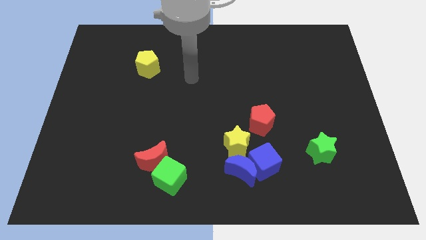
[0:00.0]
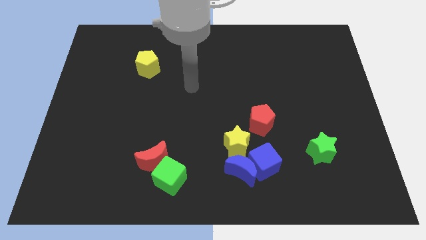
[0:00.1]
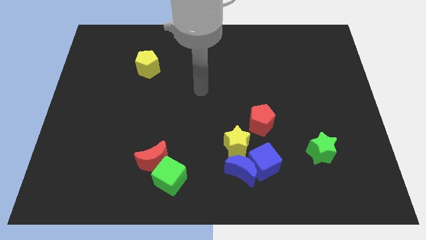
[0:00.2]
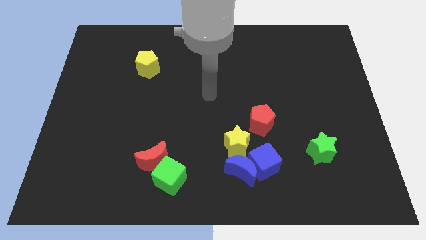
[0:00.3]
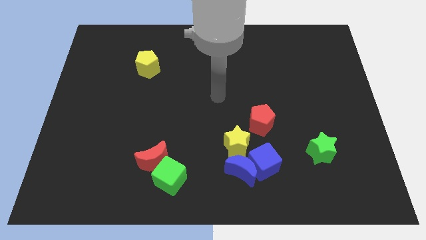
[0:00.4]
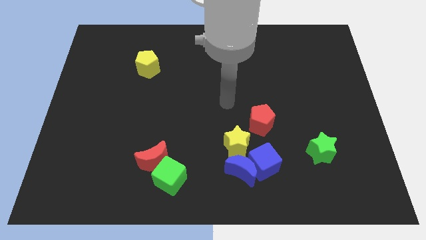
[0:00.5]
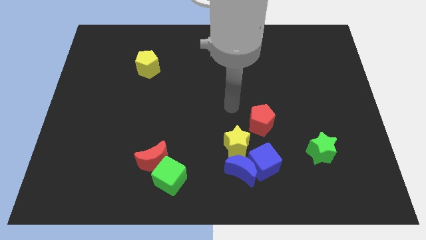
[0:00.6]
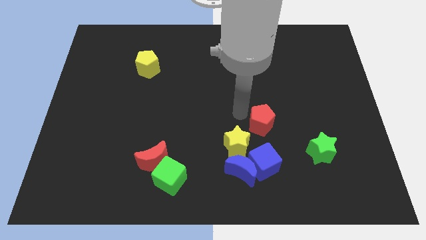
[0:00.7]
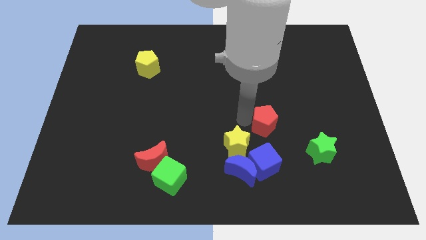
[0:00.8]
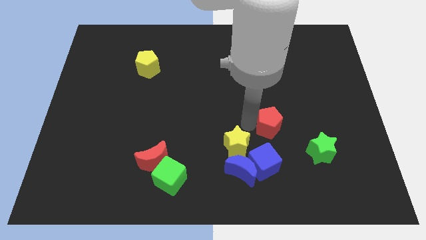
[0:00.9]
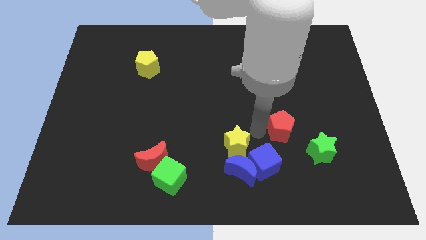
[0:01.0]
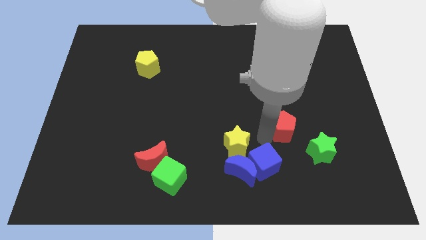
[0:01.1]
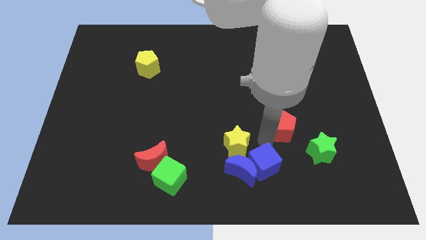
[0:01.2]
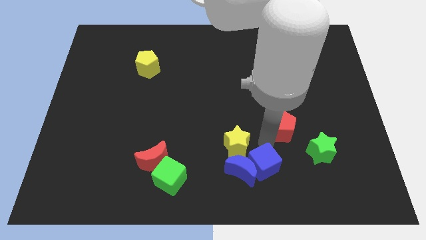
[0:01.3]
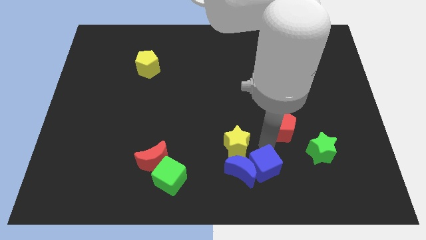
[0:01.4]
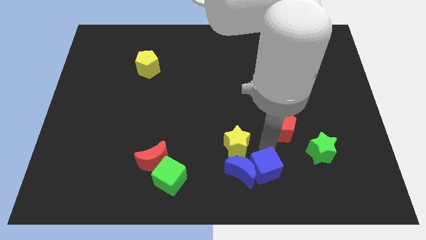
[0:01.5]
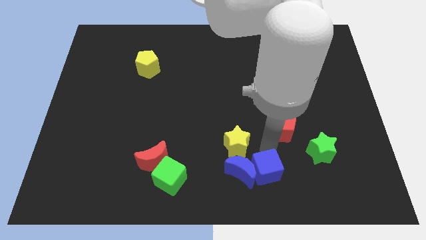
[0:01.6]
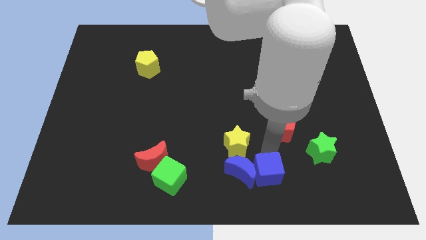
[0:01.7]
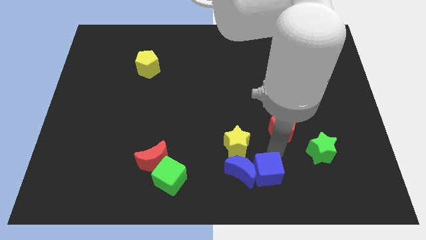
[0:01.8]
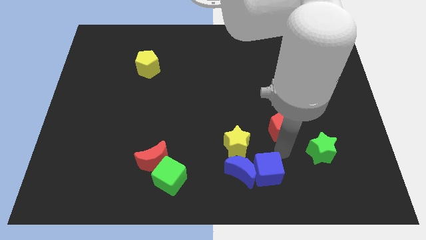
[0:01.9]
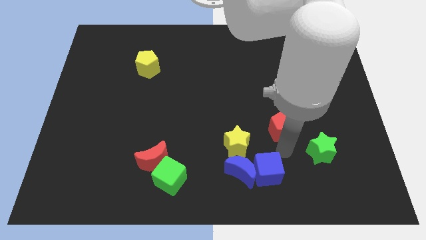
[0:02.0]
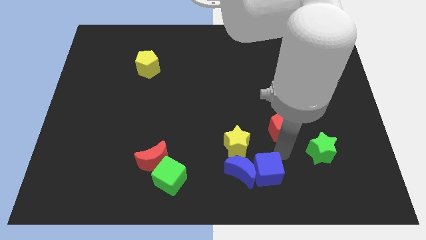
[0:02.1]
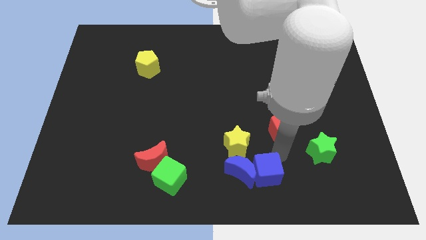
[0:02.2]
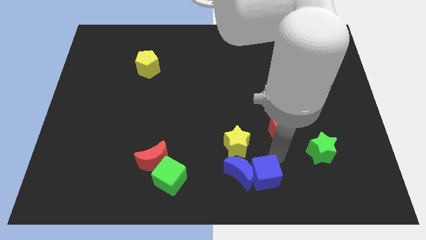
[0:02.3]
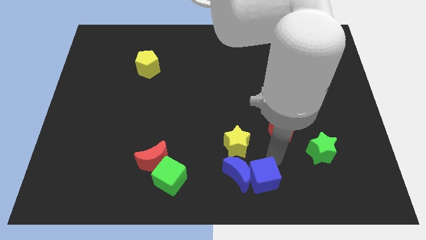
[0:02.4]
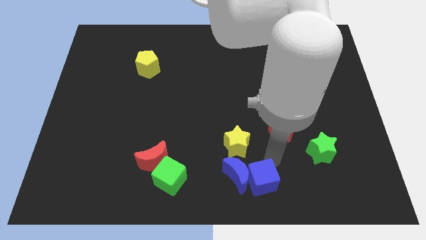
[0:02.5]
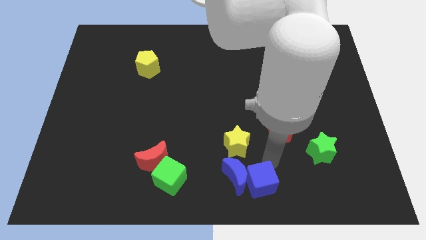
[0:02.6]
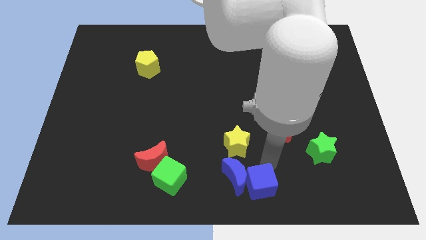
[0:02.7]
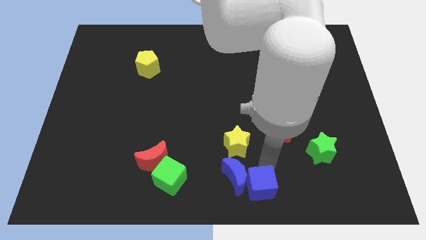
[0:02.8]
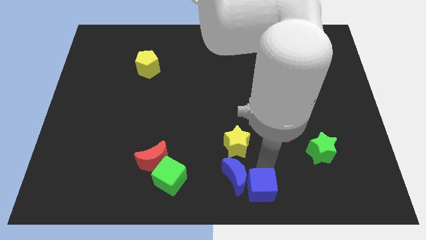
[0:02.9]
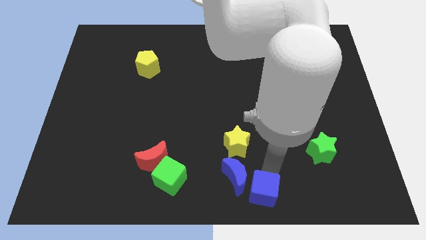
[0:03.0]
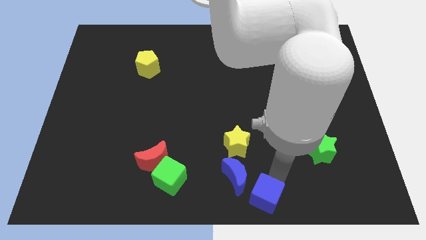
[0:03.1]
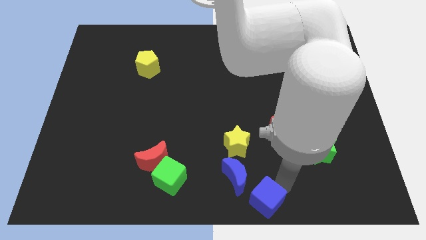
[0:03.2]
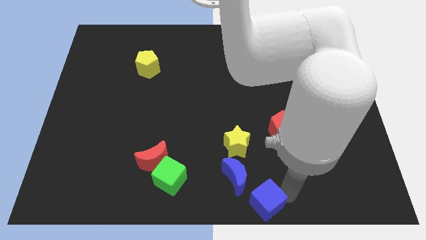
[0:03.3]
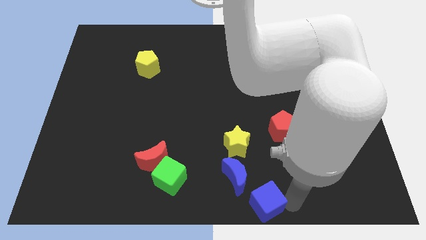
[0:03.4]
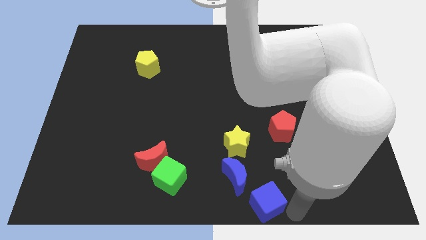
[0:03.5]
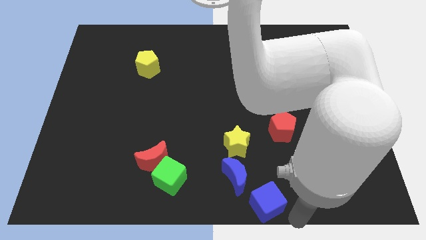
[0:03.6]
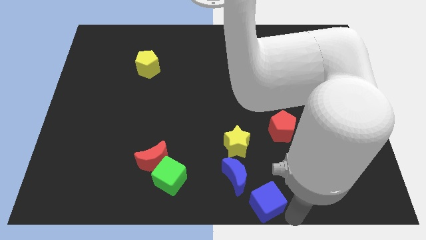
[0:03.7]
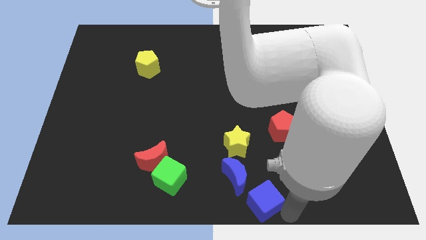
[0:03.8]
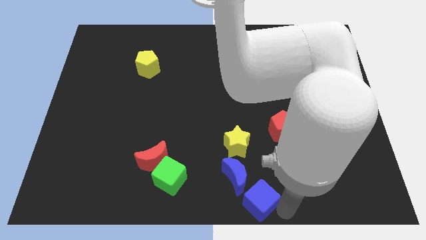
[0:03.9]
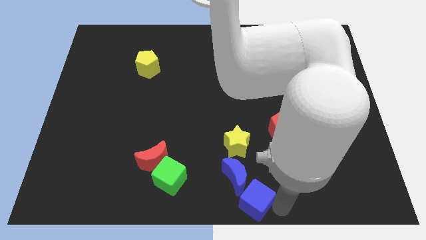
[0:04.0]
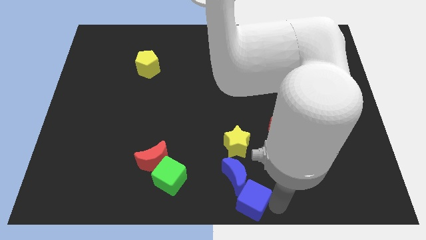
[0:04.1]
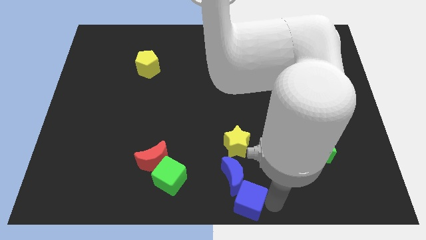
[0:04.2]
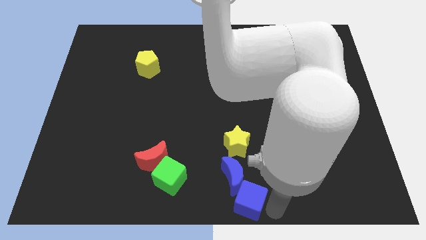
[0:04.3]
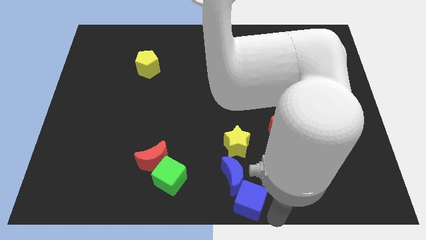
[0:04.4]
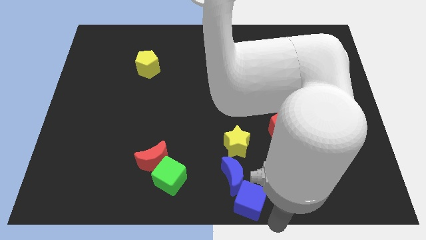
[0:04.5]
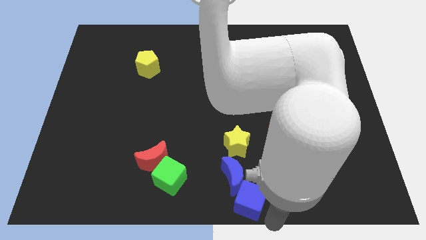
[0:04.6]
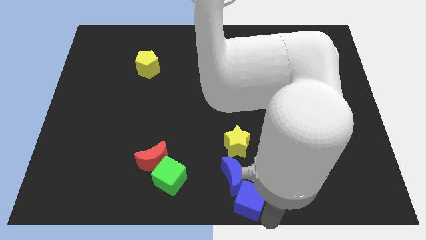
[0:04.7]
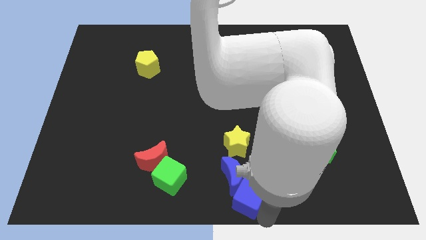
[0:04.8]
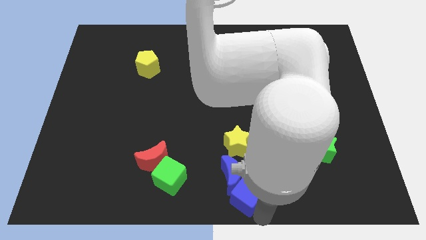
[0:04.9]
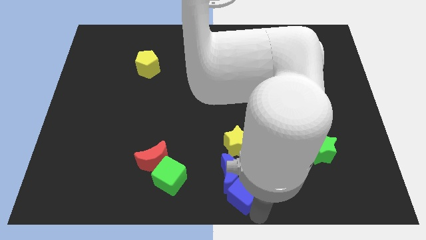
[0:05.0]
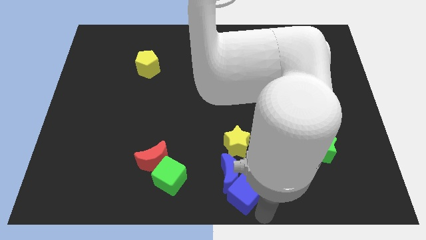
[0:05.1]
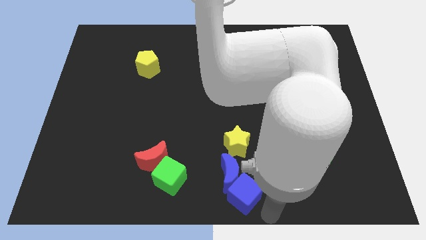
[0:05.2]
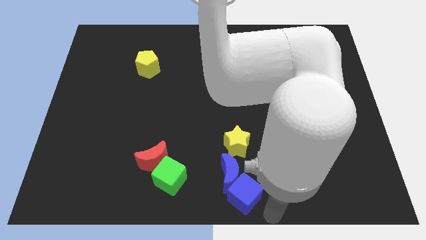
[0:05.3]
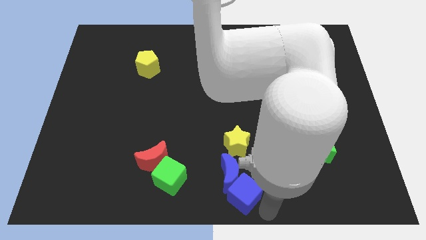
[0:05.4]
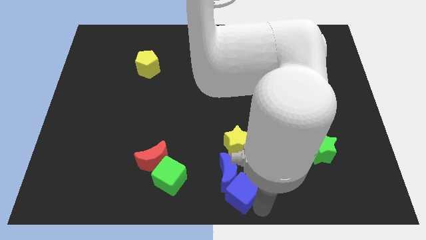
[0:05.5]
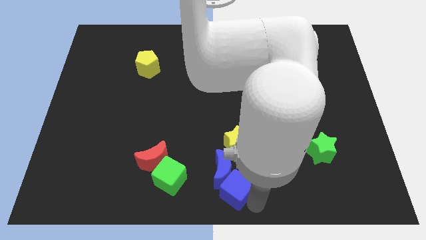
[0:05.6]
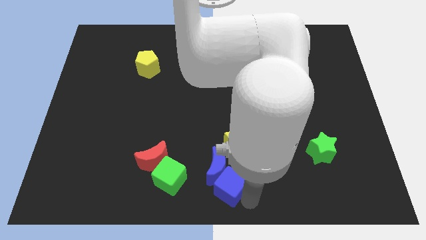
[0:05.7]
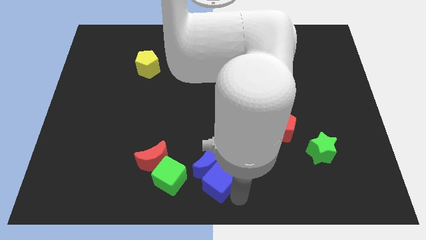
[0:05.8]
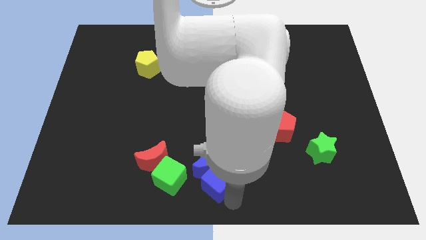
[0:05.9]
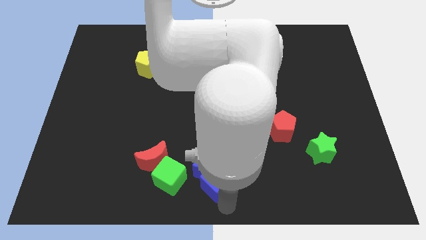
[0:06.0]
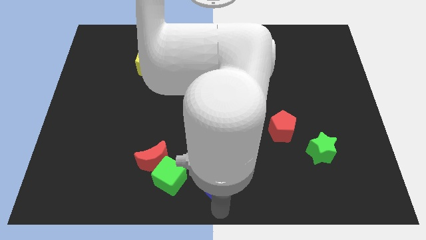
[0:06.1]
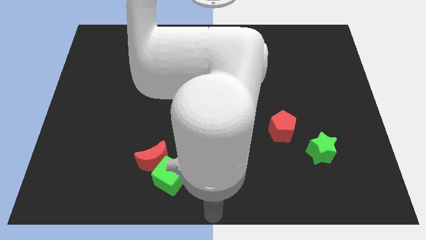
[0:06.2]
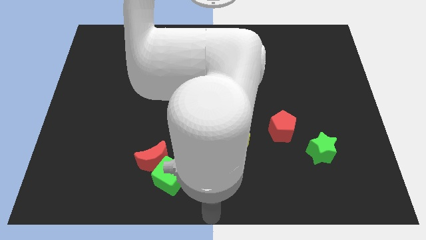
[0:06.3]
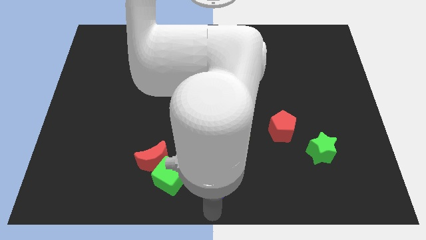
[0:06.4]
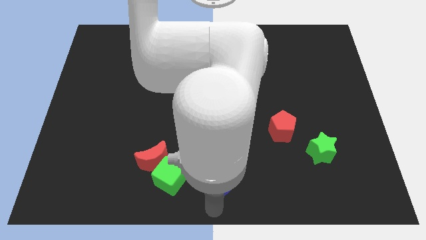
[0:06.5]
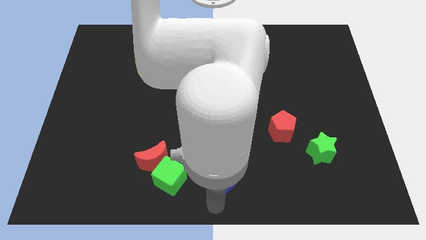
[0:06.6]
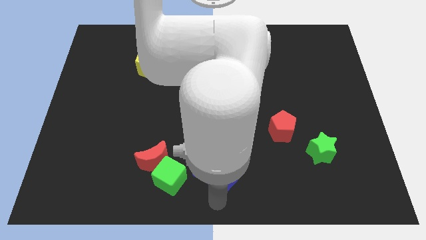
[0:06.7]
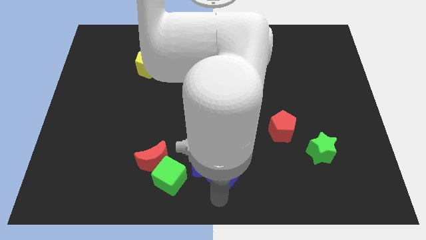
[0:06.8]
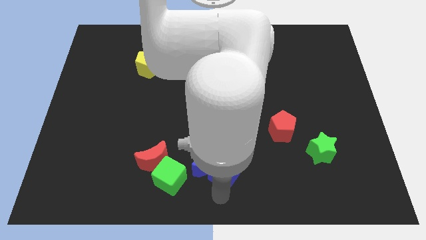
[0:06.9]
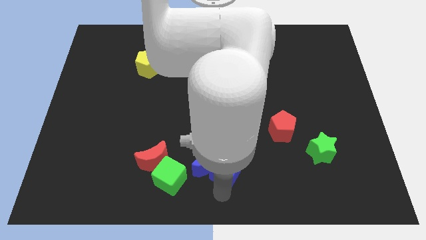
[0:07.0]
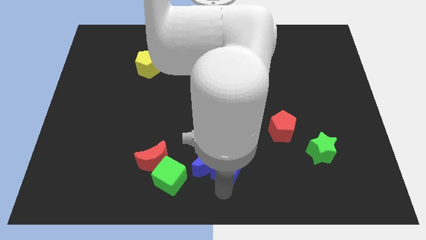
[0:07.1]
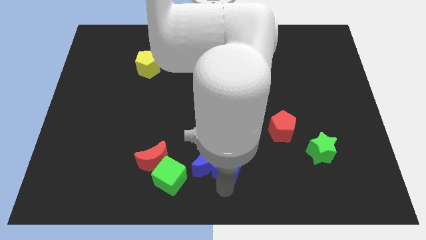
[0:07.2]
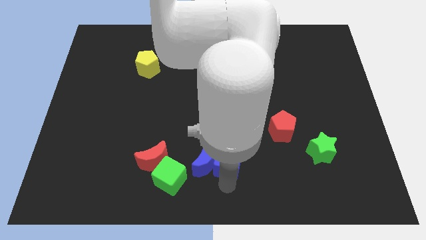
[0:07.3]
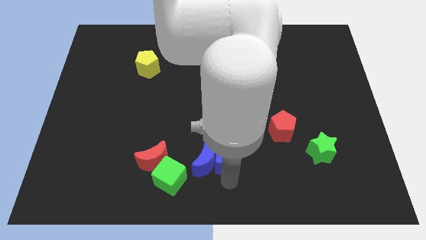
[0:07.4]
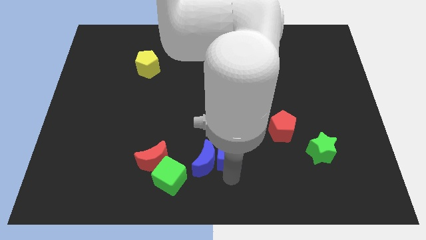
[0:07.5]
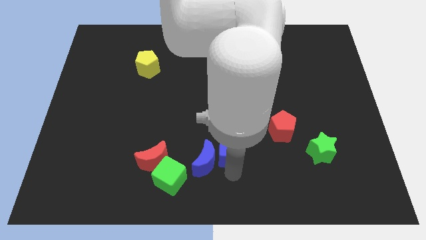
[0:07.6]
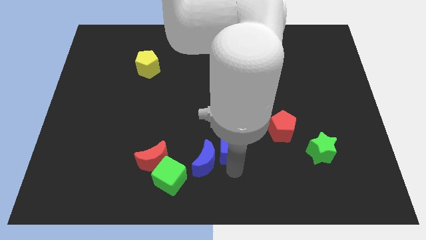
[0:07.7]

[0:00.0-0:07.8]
slightly slide the blue cube upwards and to the left diagonally
